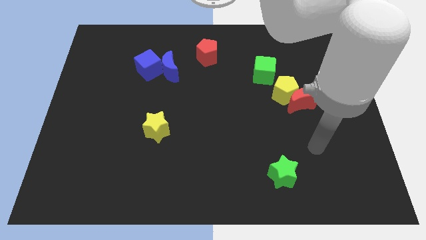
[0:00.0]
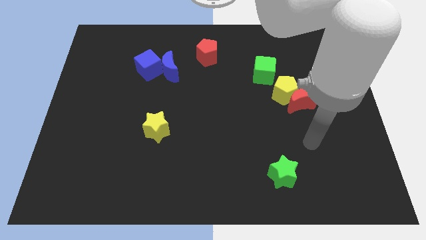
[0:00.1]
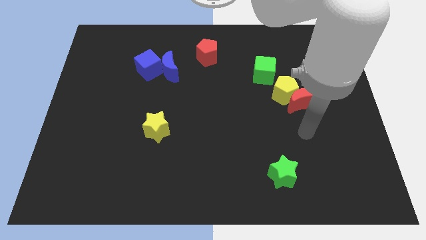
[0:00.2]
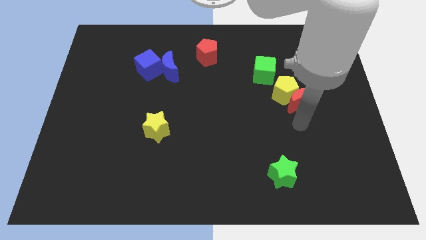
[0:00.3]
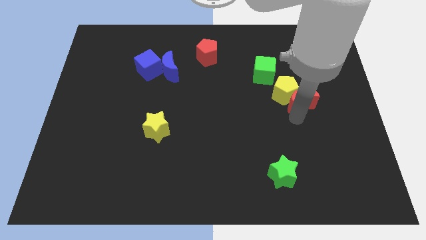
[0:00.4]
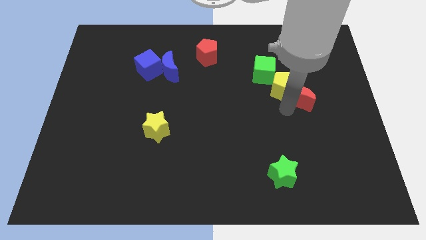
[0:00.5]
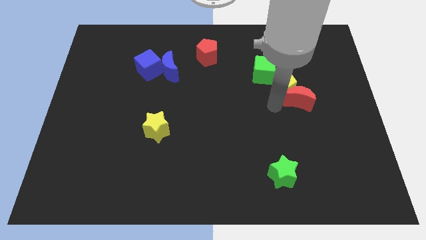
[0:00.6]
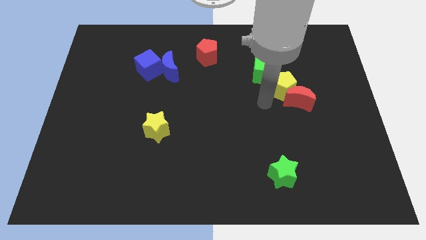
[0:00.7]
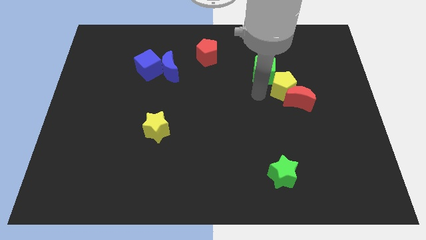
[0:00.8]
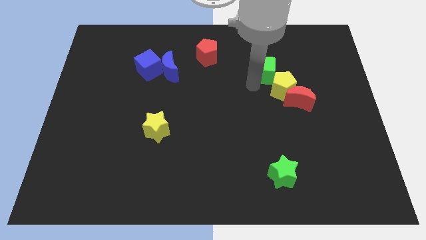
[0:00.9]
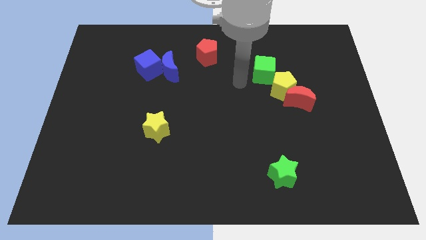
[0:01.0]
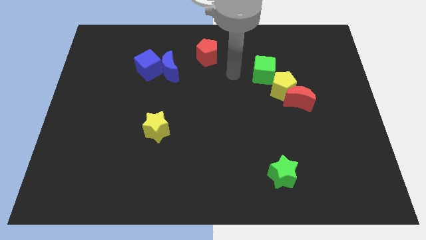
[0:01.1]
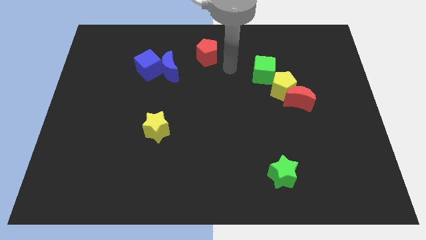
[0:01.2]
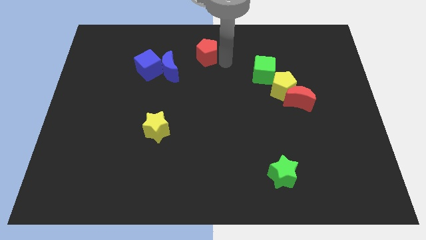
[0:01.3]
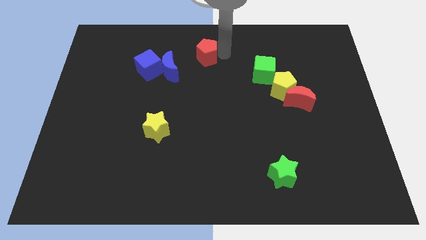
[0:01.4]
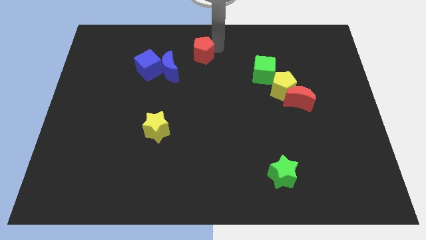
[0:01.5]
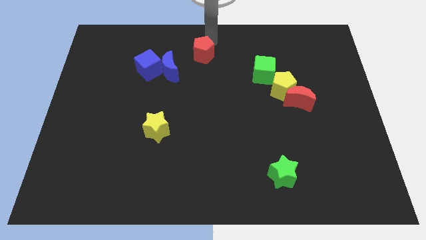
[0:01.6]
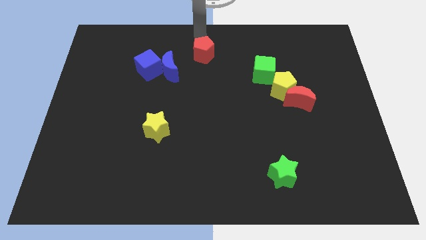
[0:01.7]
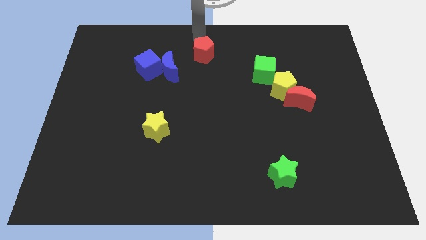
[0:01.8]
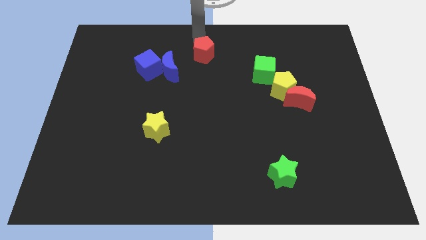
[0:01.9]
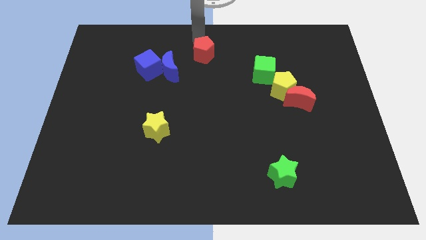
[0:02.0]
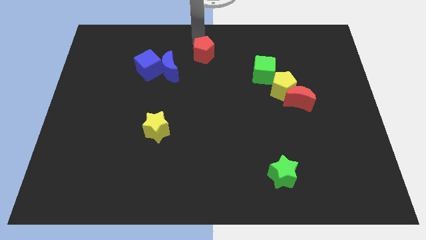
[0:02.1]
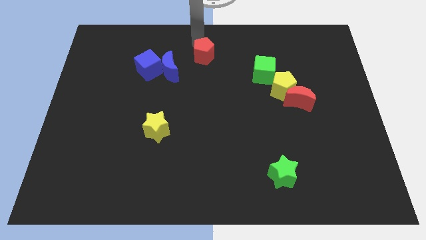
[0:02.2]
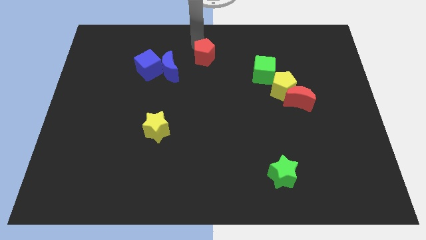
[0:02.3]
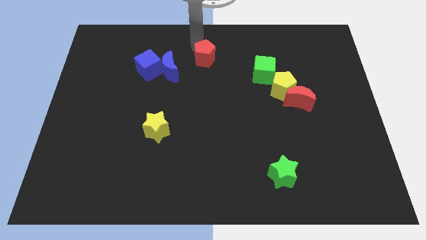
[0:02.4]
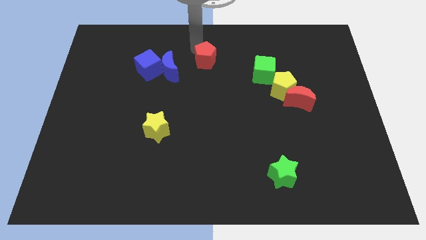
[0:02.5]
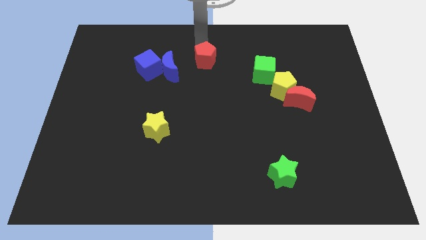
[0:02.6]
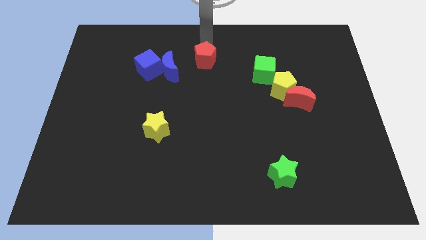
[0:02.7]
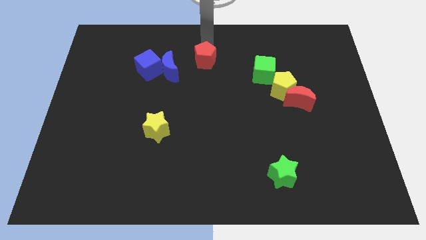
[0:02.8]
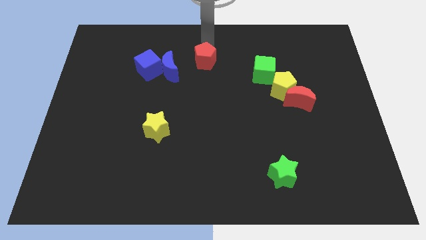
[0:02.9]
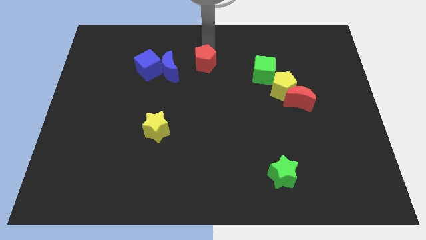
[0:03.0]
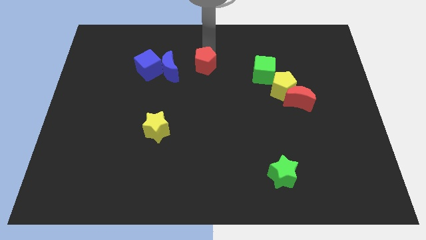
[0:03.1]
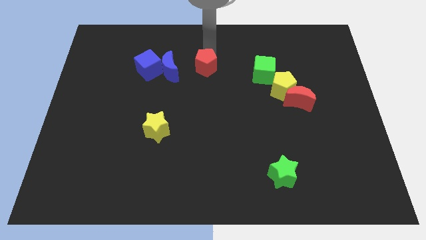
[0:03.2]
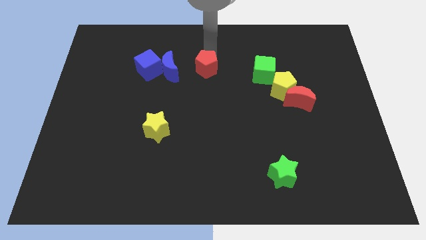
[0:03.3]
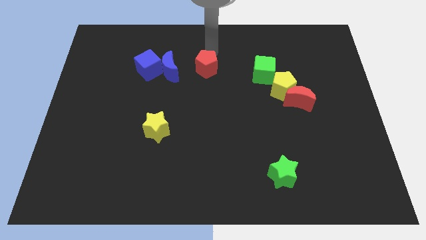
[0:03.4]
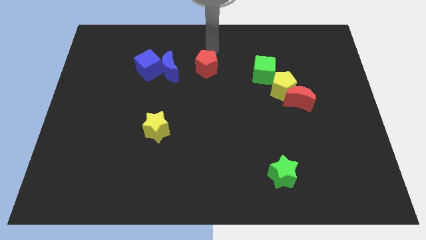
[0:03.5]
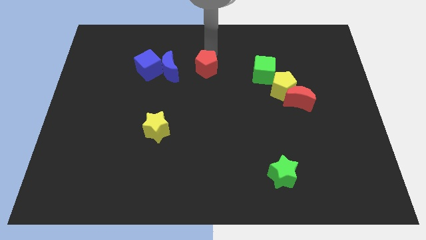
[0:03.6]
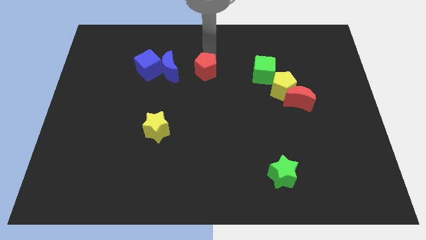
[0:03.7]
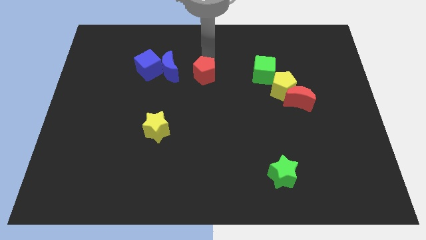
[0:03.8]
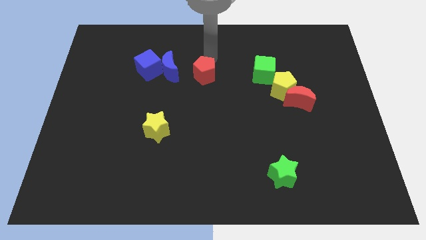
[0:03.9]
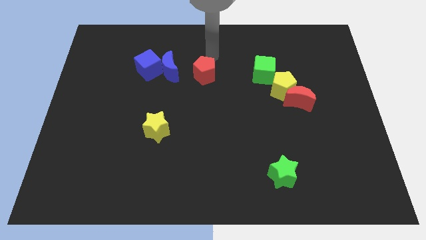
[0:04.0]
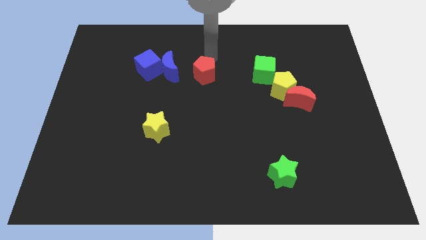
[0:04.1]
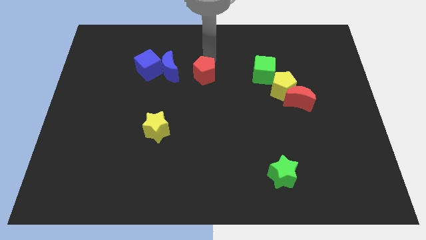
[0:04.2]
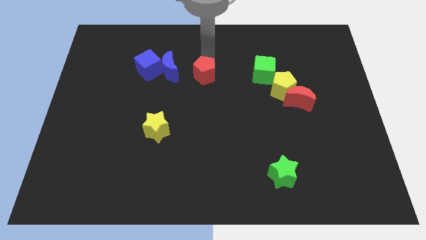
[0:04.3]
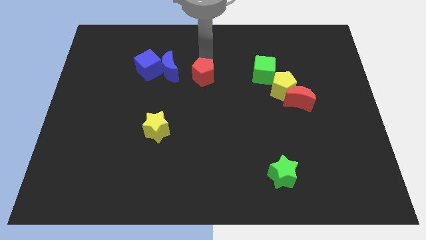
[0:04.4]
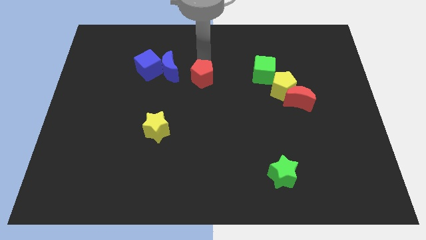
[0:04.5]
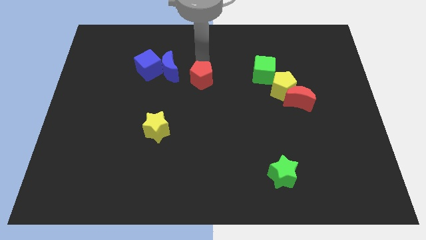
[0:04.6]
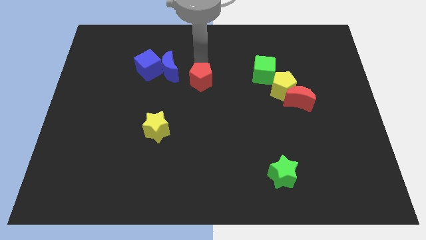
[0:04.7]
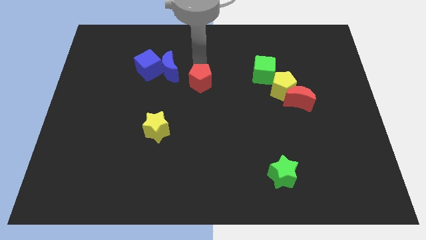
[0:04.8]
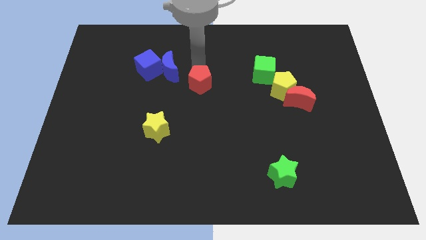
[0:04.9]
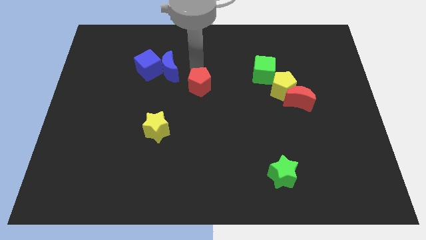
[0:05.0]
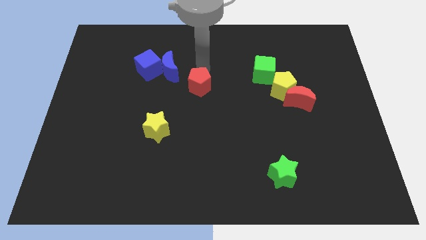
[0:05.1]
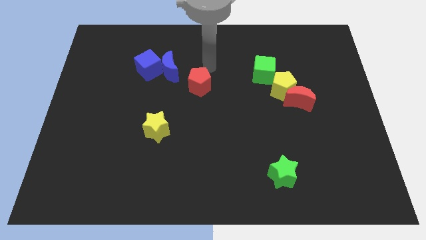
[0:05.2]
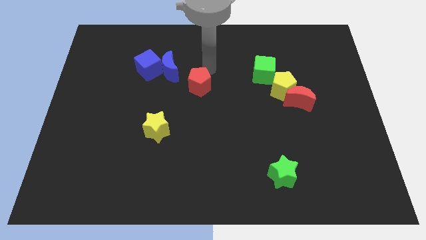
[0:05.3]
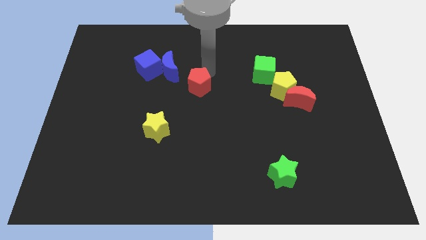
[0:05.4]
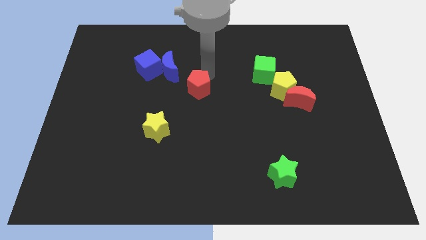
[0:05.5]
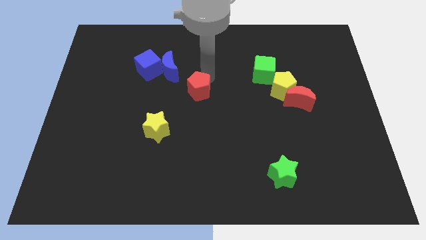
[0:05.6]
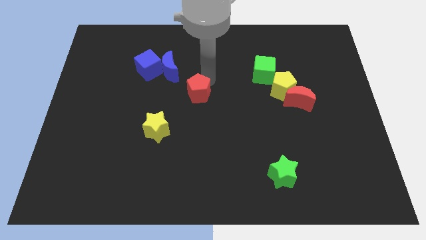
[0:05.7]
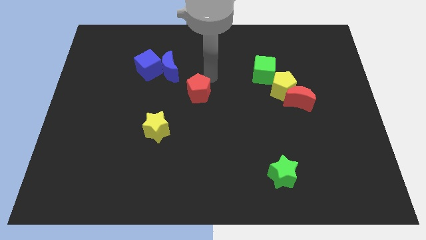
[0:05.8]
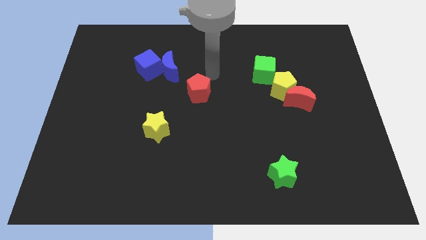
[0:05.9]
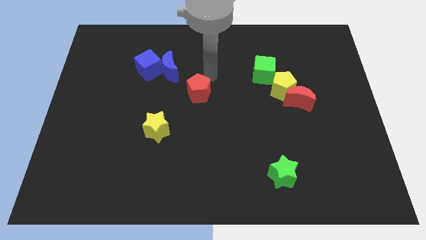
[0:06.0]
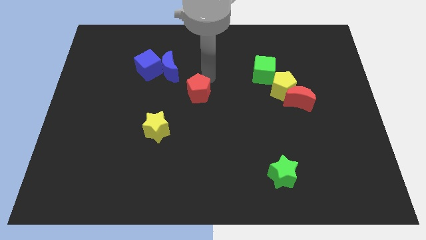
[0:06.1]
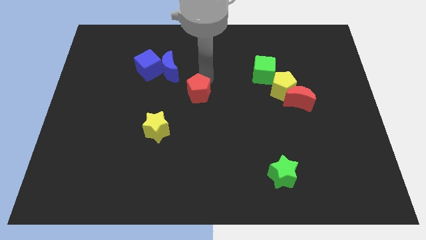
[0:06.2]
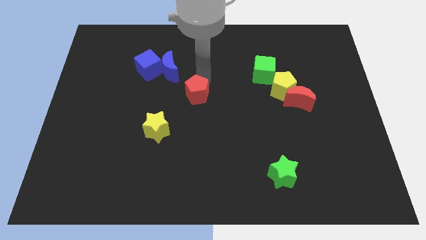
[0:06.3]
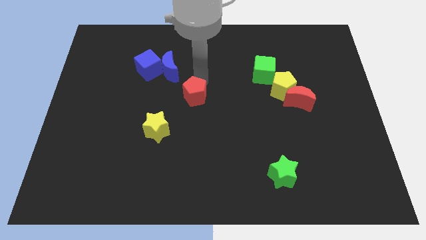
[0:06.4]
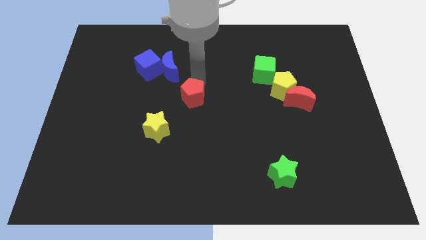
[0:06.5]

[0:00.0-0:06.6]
put the red pentagon diagonally up and to the right of the yellow star

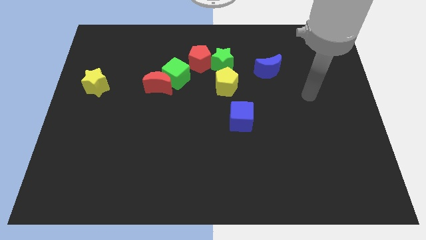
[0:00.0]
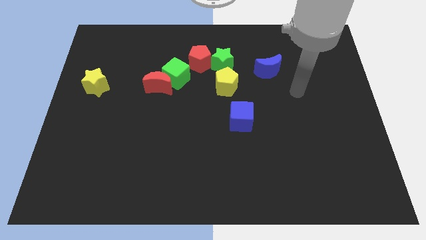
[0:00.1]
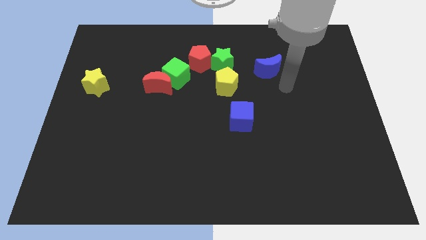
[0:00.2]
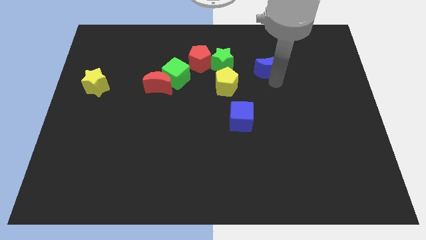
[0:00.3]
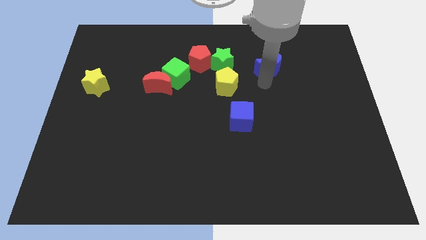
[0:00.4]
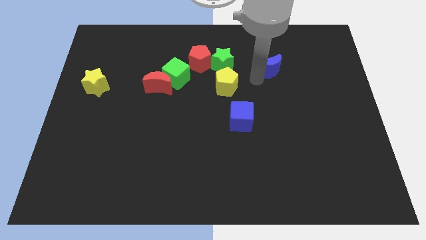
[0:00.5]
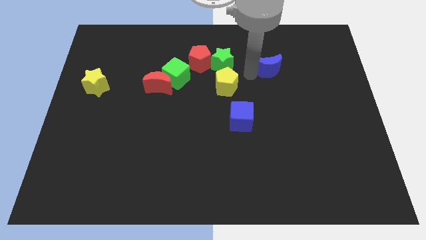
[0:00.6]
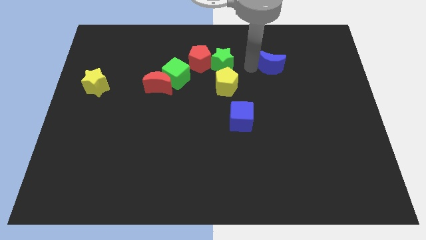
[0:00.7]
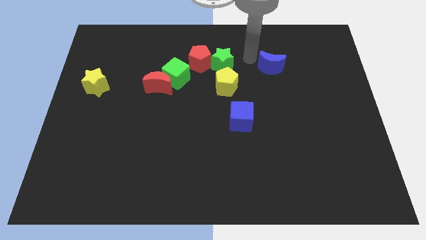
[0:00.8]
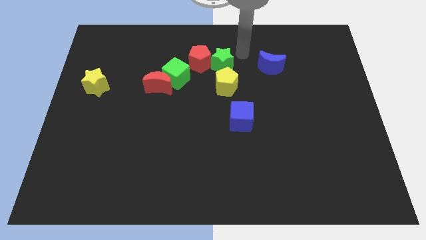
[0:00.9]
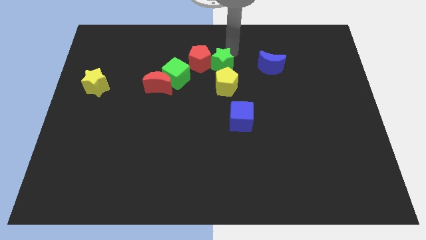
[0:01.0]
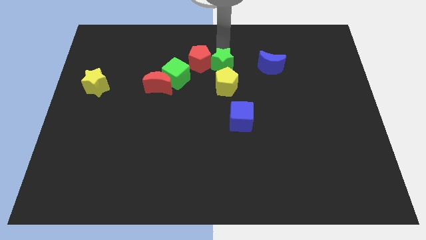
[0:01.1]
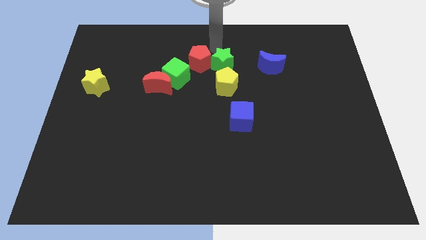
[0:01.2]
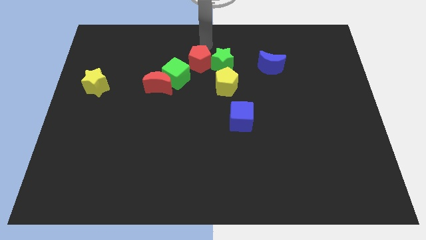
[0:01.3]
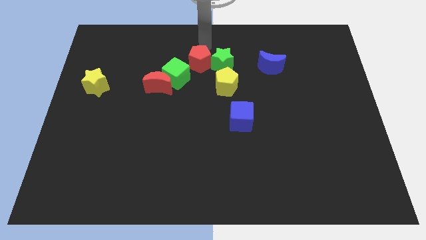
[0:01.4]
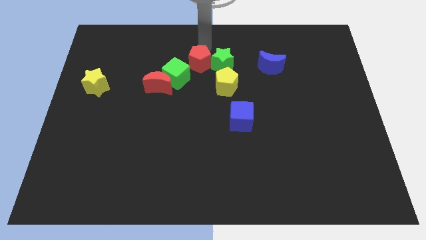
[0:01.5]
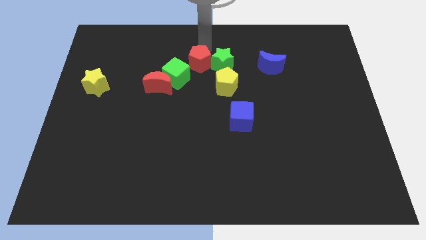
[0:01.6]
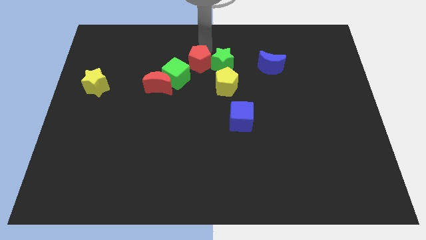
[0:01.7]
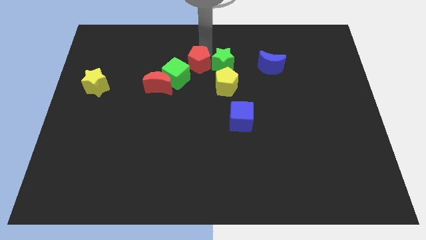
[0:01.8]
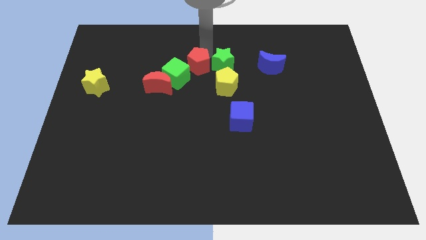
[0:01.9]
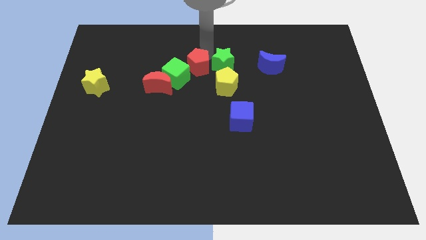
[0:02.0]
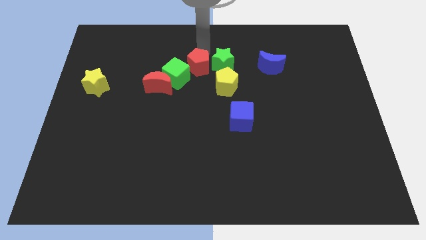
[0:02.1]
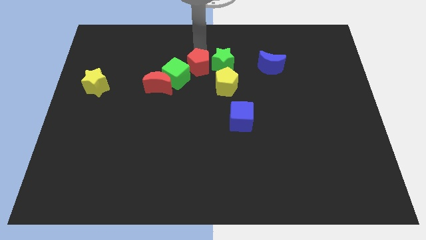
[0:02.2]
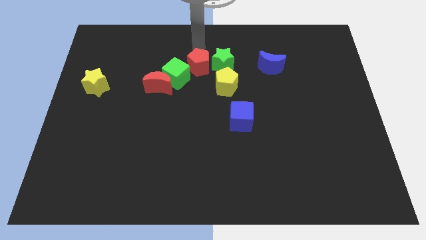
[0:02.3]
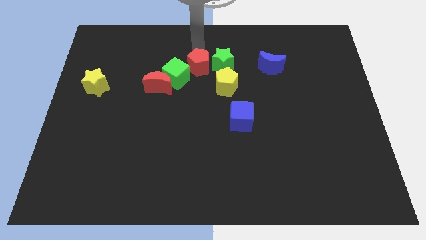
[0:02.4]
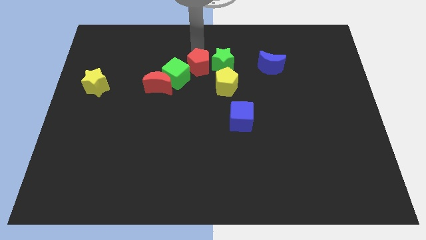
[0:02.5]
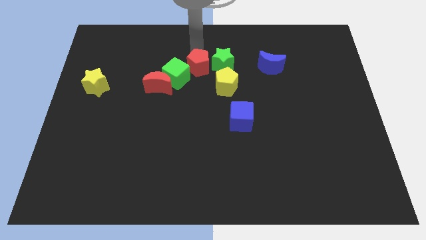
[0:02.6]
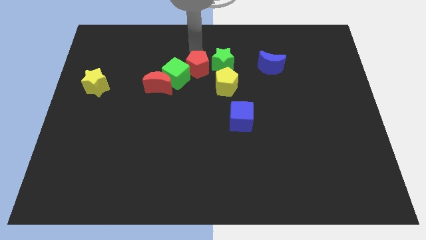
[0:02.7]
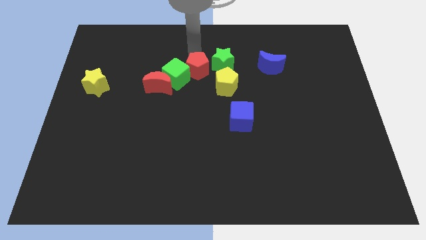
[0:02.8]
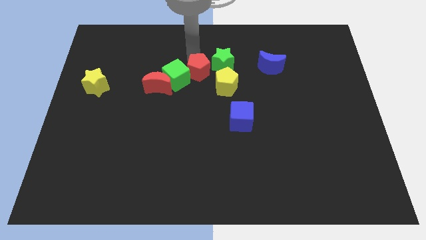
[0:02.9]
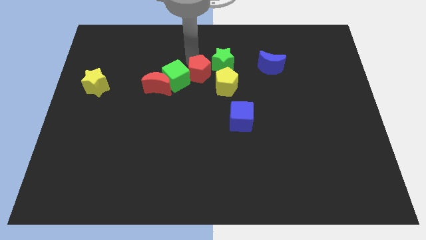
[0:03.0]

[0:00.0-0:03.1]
push the red pentagon right of the red moon
